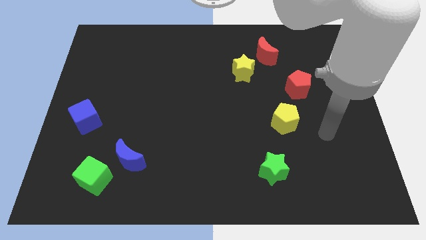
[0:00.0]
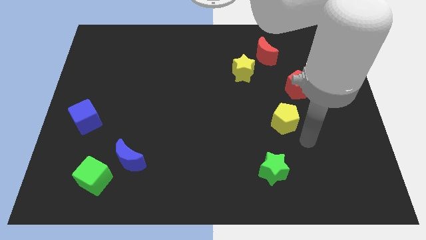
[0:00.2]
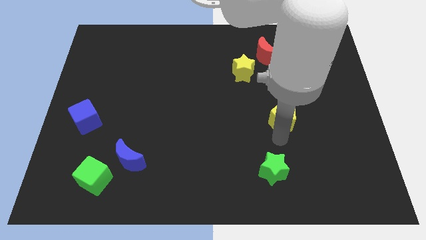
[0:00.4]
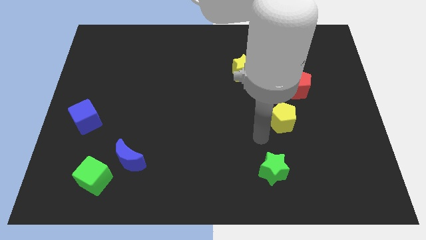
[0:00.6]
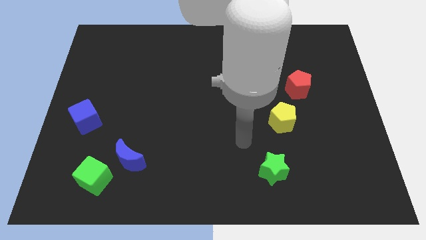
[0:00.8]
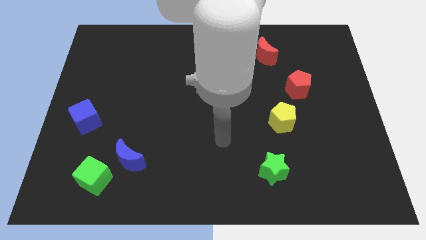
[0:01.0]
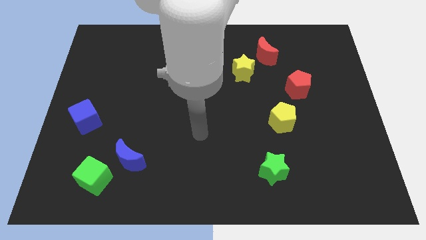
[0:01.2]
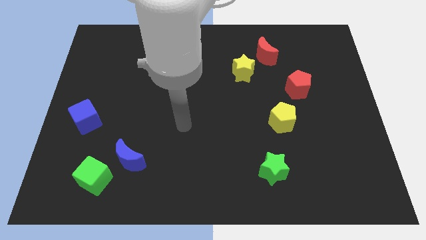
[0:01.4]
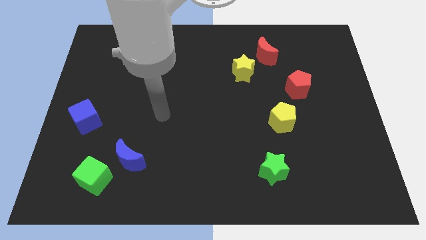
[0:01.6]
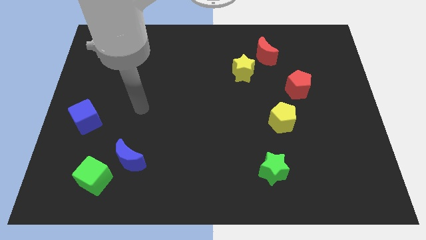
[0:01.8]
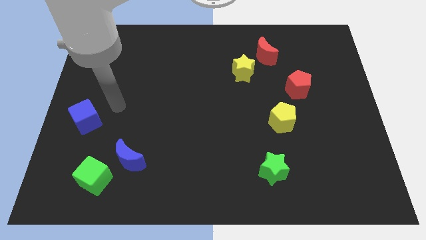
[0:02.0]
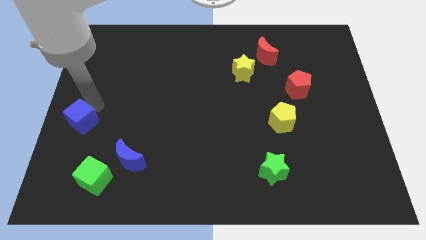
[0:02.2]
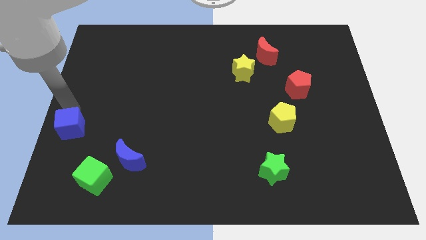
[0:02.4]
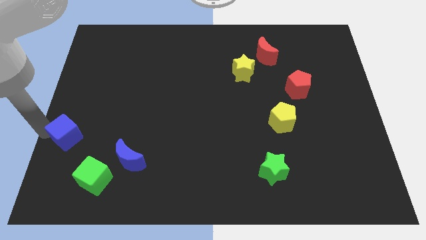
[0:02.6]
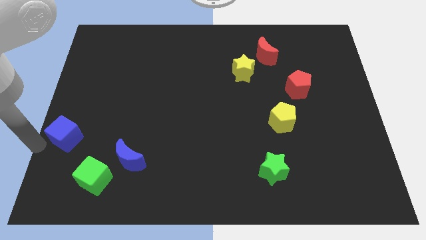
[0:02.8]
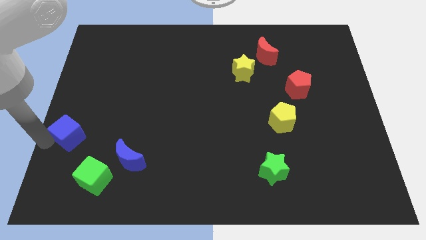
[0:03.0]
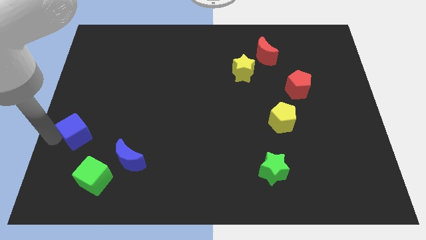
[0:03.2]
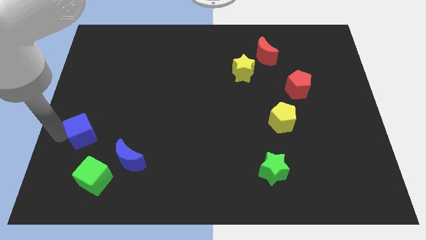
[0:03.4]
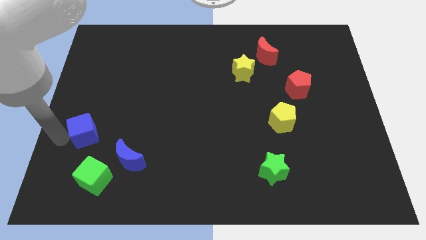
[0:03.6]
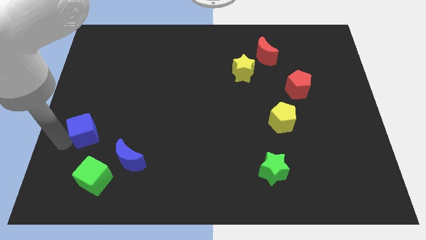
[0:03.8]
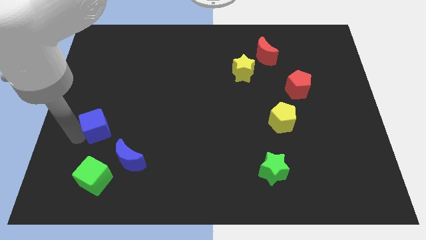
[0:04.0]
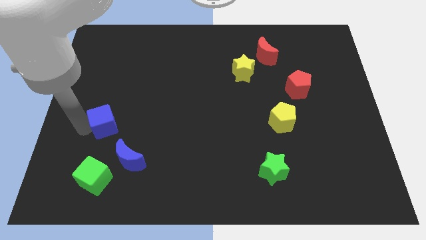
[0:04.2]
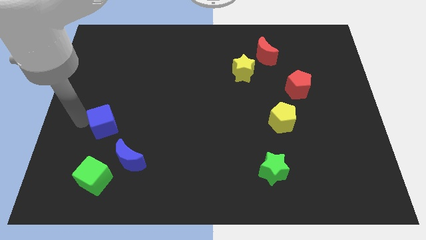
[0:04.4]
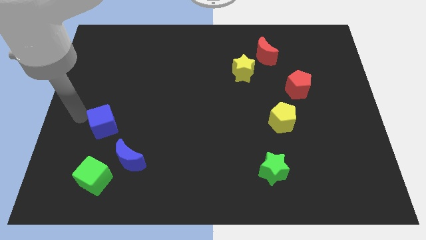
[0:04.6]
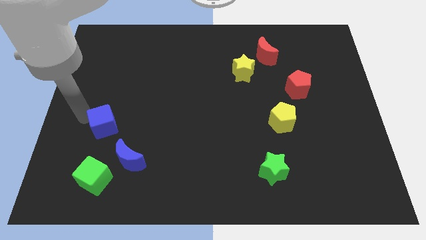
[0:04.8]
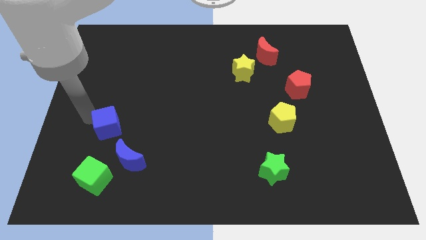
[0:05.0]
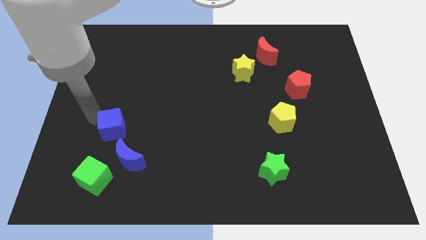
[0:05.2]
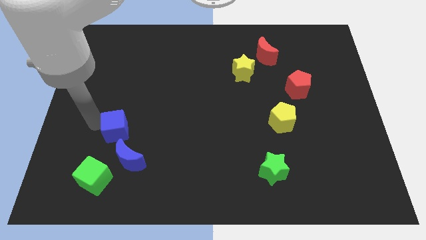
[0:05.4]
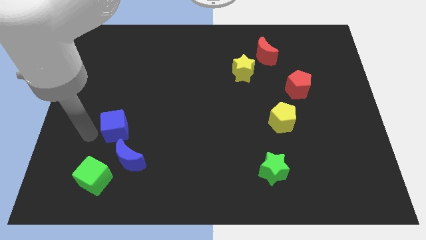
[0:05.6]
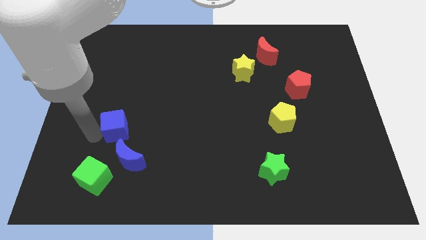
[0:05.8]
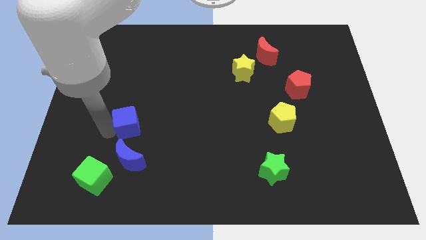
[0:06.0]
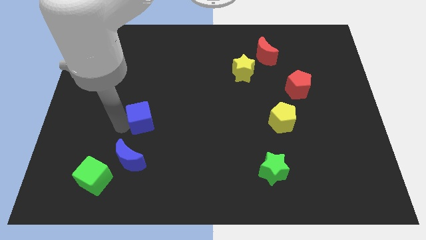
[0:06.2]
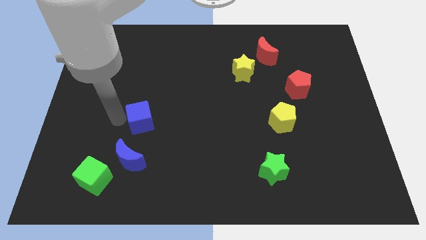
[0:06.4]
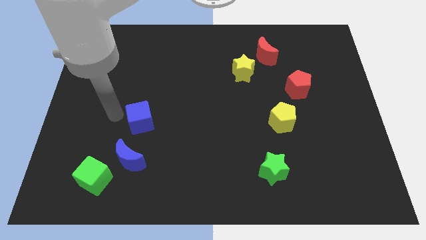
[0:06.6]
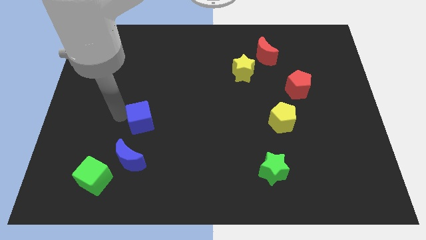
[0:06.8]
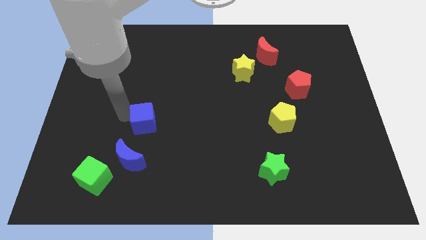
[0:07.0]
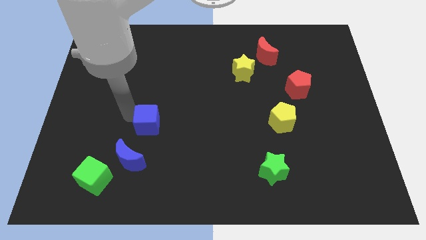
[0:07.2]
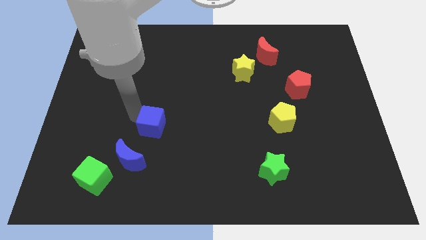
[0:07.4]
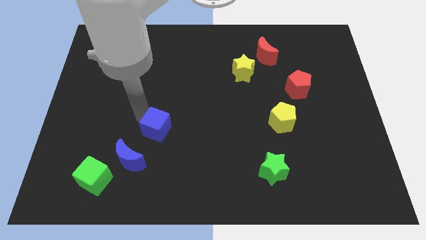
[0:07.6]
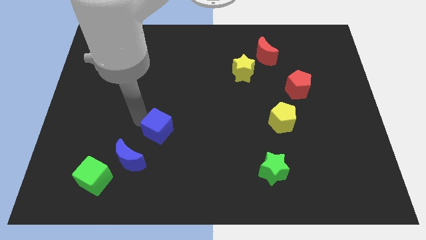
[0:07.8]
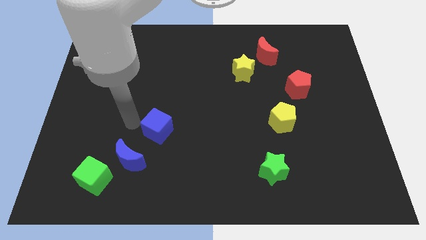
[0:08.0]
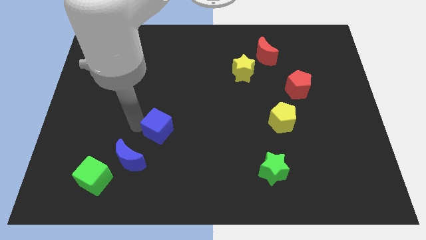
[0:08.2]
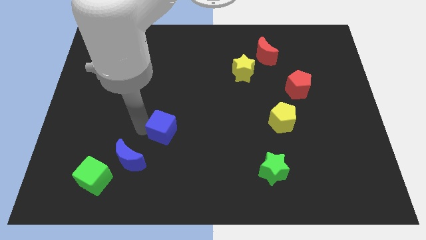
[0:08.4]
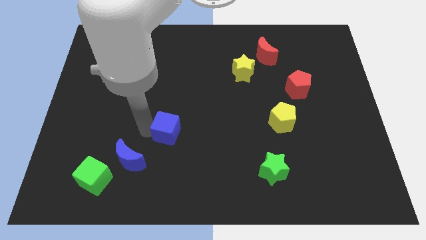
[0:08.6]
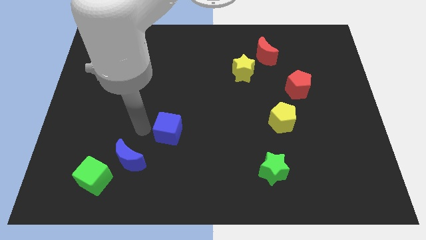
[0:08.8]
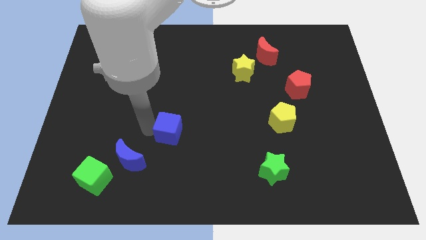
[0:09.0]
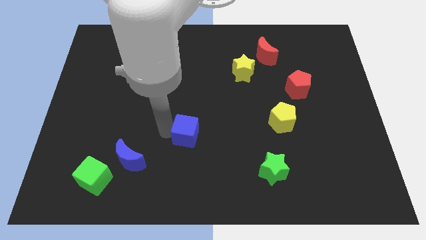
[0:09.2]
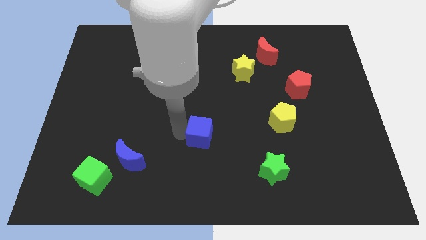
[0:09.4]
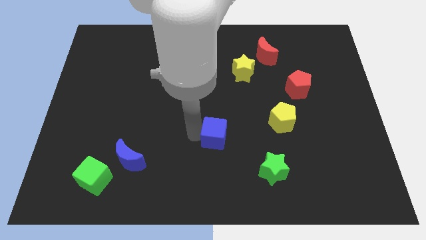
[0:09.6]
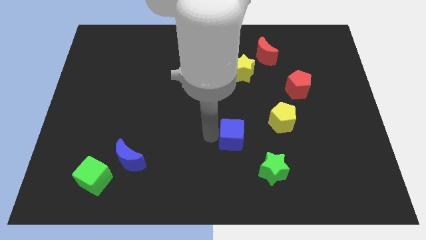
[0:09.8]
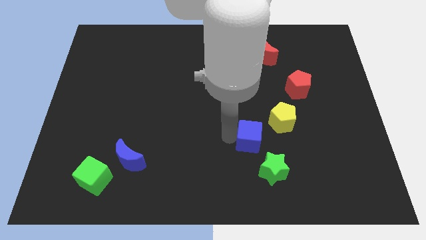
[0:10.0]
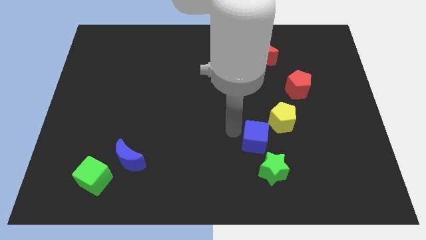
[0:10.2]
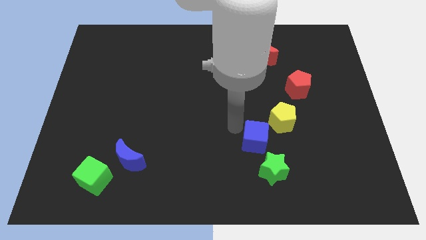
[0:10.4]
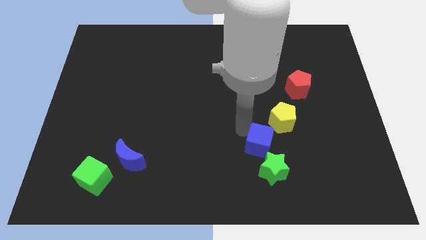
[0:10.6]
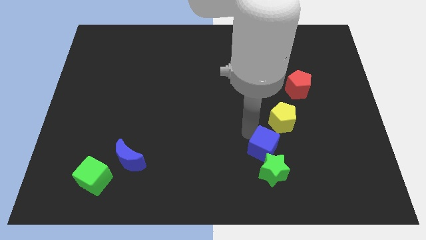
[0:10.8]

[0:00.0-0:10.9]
push the blue cube below the yellow pentagon

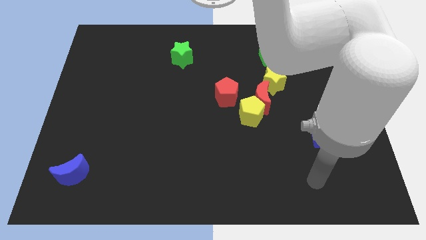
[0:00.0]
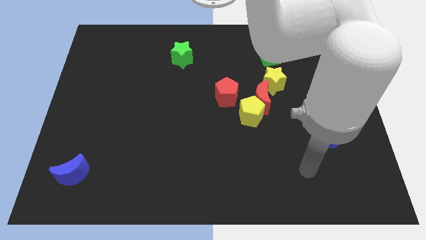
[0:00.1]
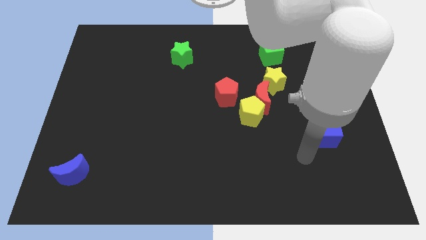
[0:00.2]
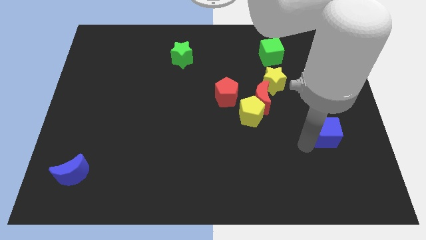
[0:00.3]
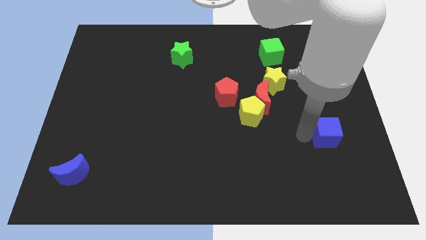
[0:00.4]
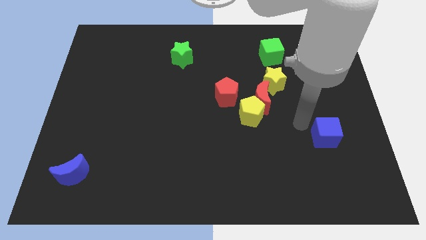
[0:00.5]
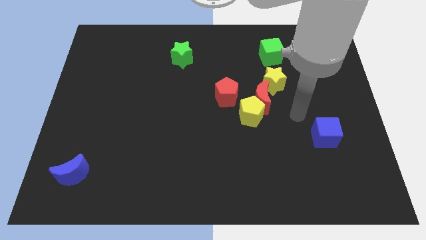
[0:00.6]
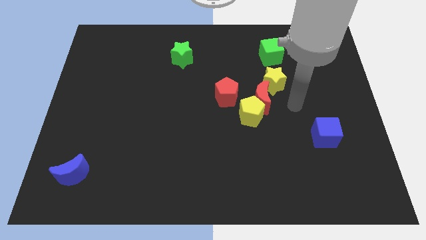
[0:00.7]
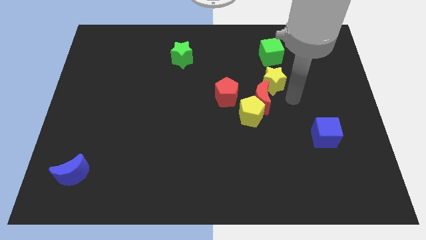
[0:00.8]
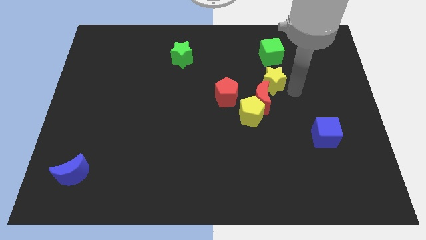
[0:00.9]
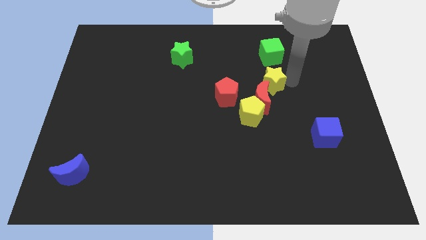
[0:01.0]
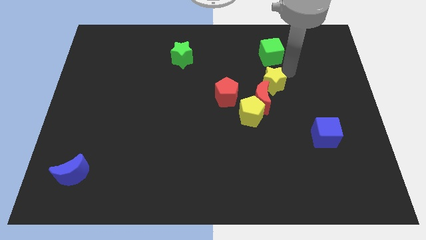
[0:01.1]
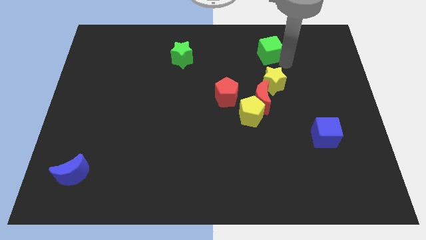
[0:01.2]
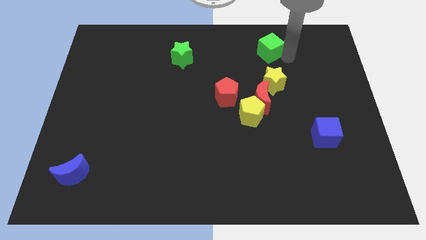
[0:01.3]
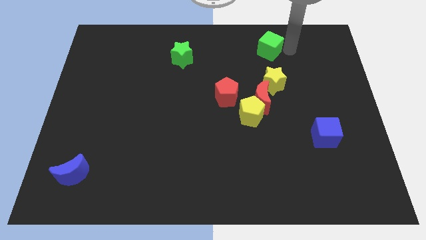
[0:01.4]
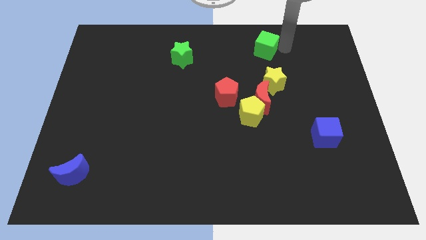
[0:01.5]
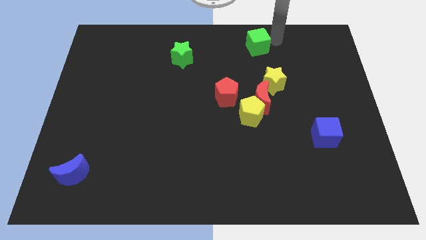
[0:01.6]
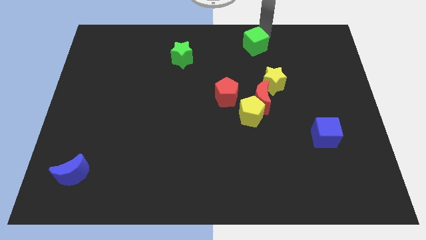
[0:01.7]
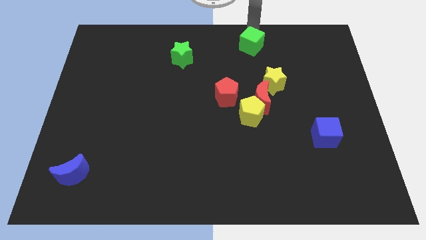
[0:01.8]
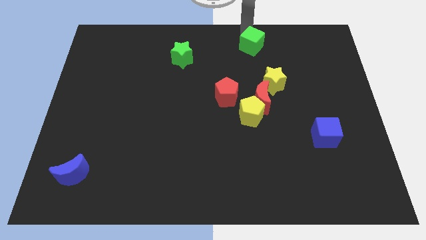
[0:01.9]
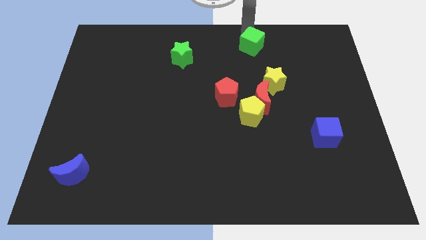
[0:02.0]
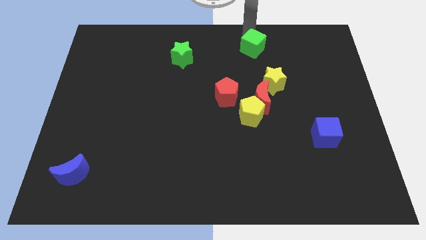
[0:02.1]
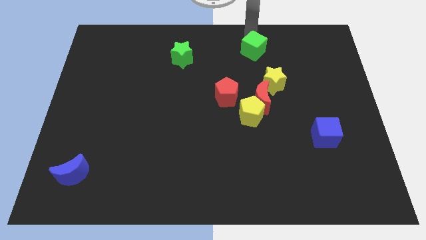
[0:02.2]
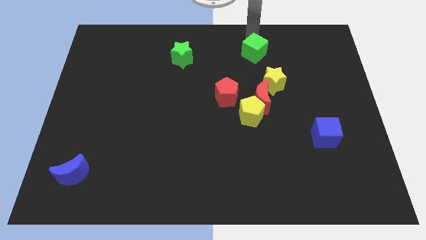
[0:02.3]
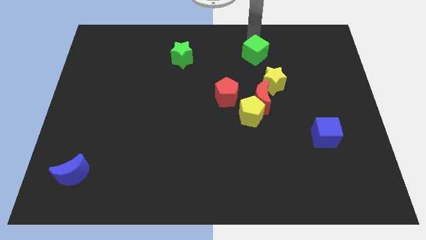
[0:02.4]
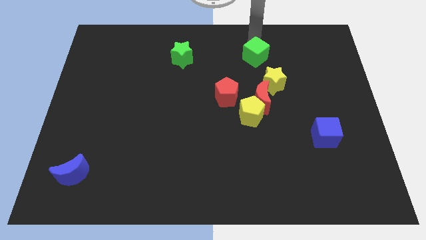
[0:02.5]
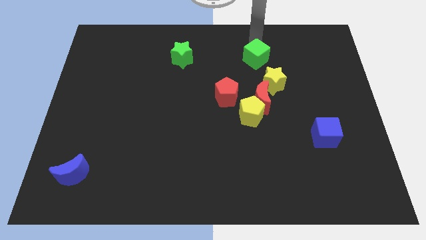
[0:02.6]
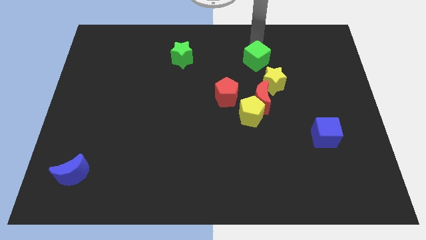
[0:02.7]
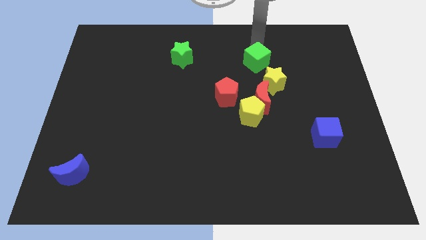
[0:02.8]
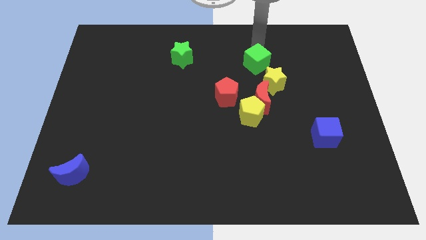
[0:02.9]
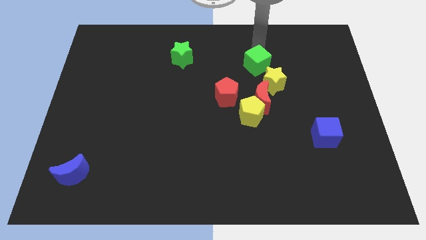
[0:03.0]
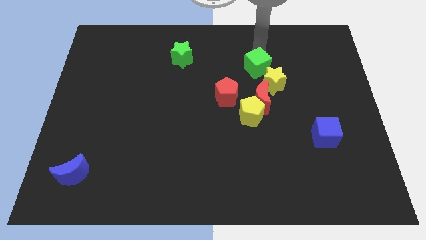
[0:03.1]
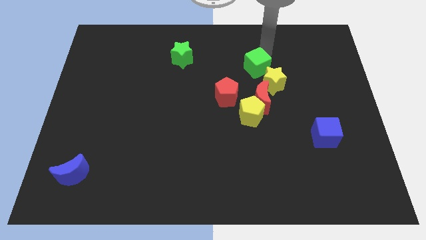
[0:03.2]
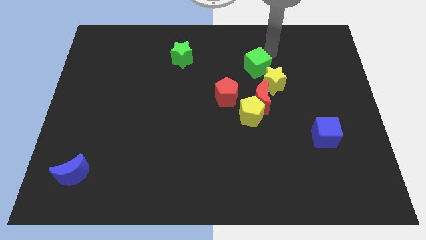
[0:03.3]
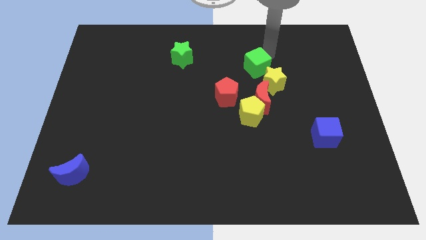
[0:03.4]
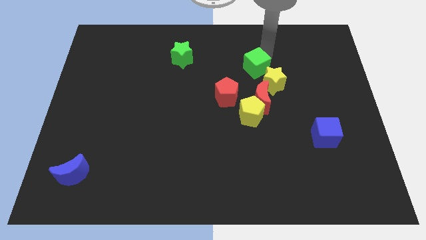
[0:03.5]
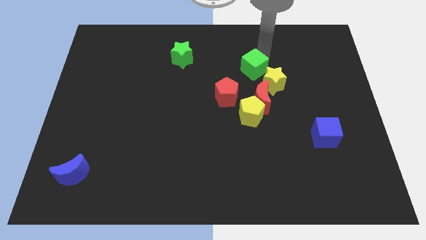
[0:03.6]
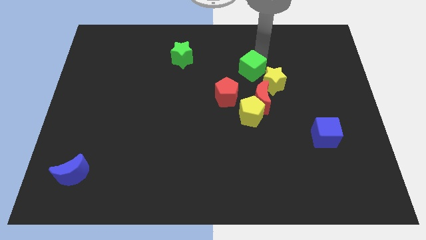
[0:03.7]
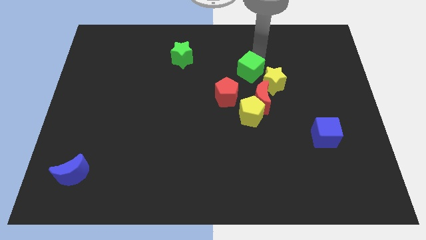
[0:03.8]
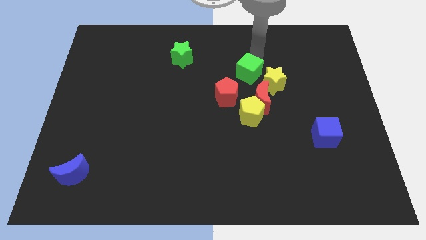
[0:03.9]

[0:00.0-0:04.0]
put the green cube to the top left of the red moon
